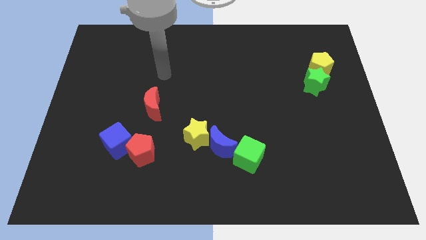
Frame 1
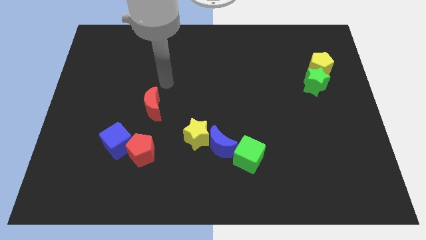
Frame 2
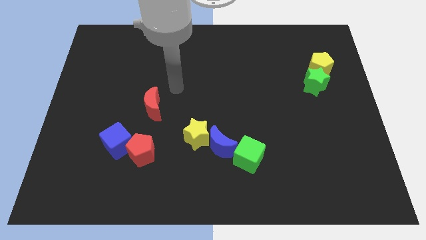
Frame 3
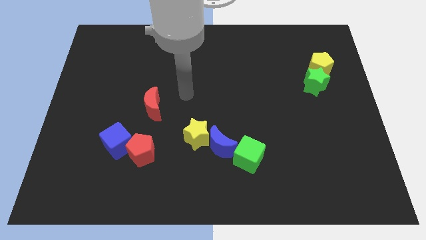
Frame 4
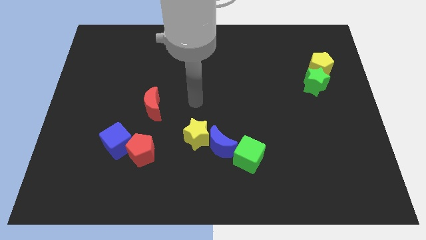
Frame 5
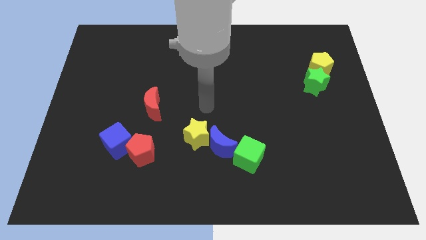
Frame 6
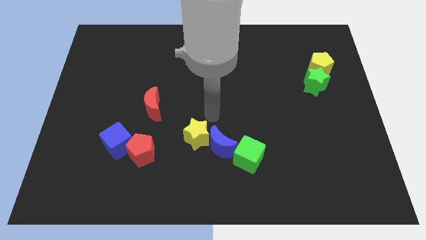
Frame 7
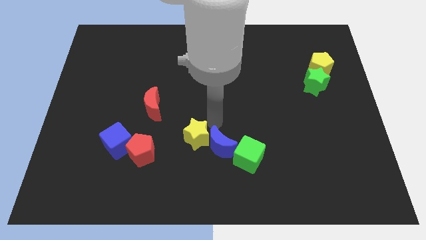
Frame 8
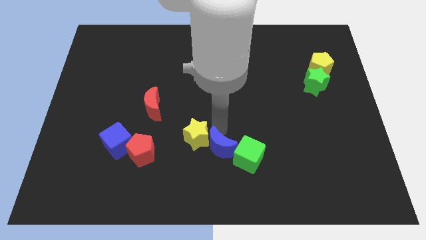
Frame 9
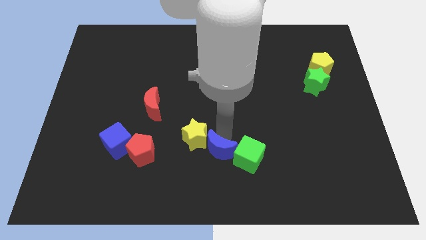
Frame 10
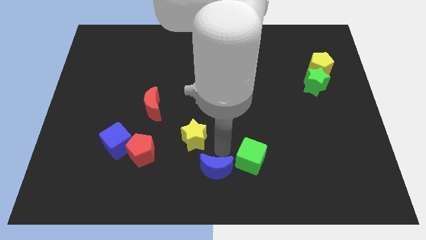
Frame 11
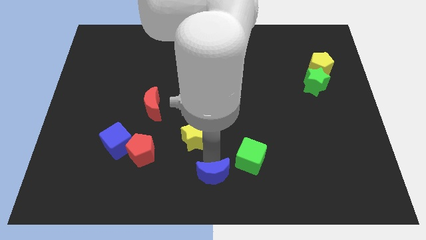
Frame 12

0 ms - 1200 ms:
pull the yellow star apart from the blue moon

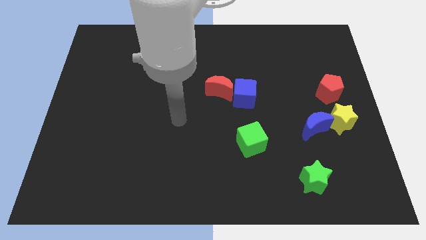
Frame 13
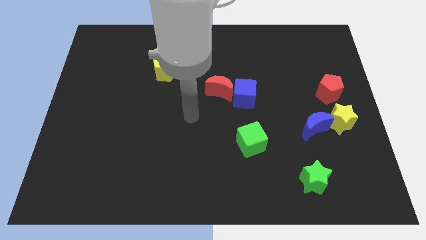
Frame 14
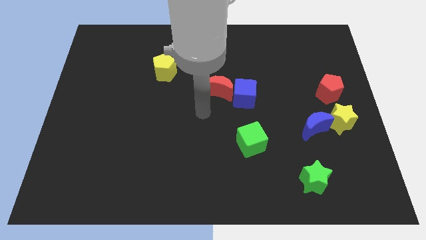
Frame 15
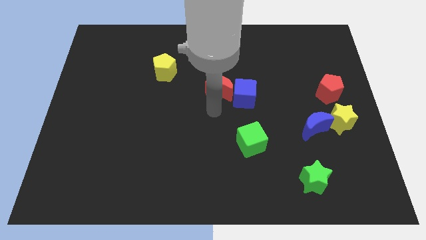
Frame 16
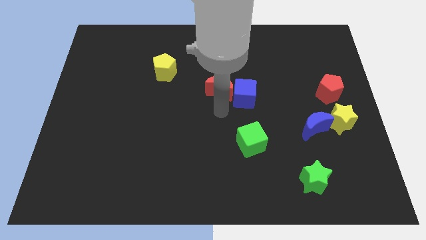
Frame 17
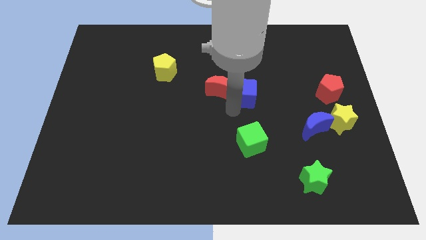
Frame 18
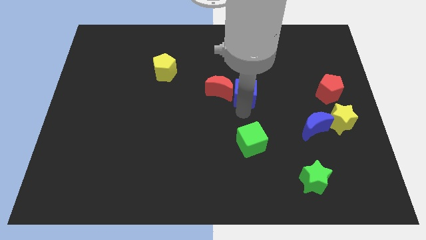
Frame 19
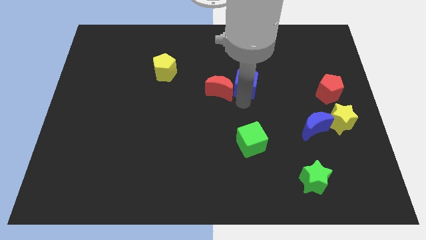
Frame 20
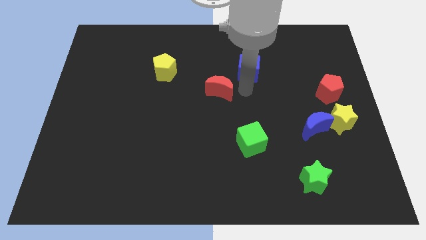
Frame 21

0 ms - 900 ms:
pull the red moon apart from the blue cube

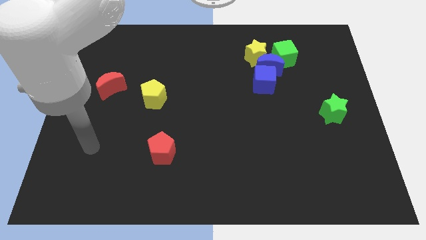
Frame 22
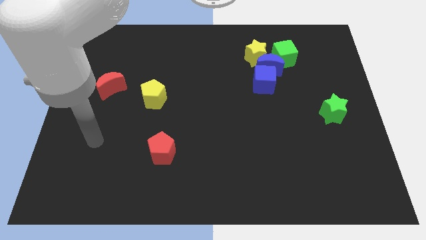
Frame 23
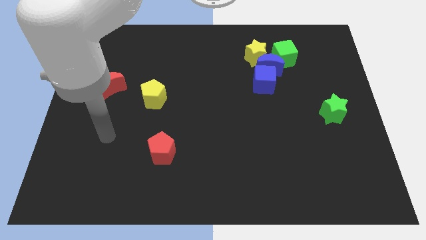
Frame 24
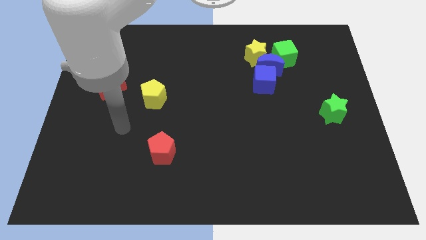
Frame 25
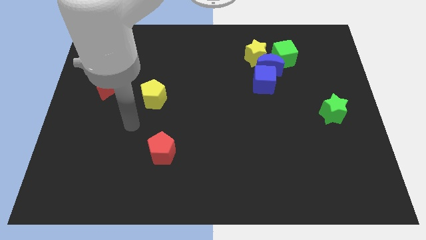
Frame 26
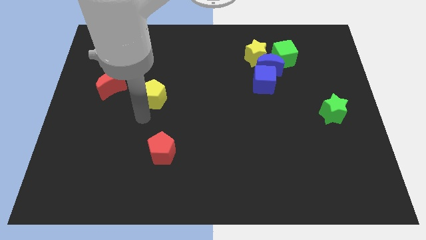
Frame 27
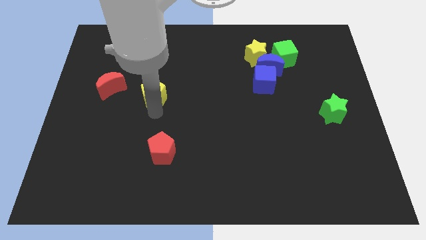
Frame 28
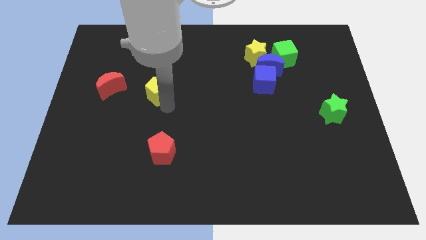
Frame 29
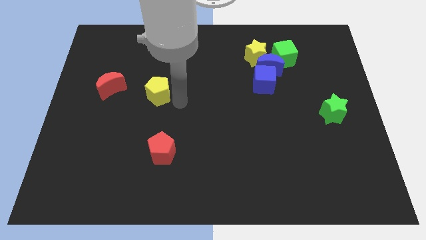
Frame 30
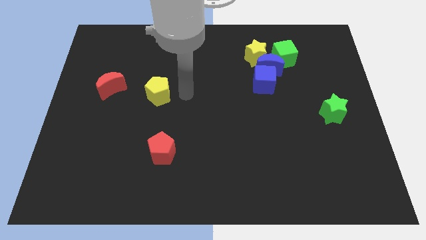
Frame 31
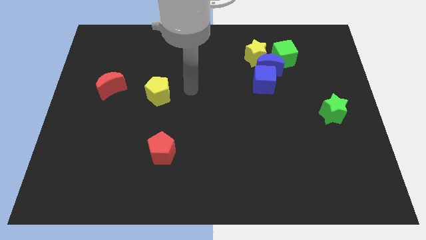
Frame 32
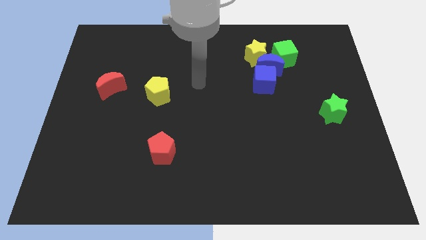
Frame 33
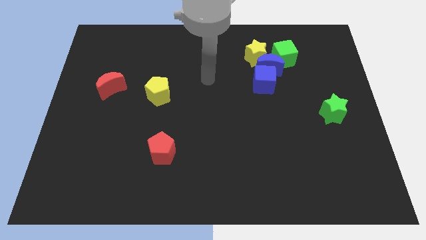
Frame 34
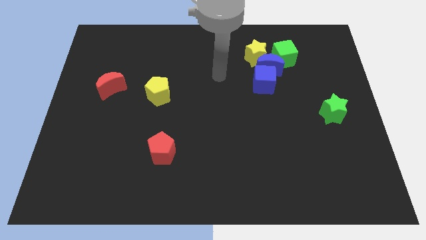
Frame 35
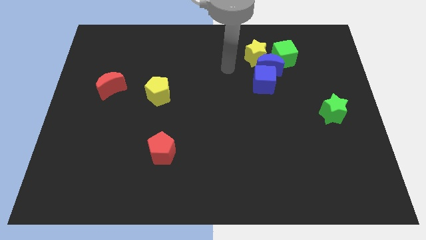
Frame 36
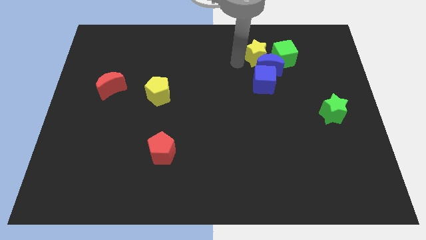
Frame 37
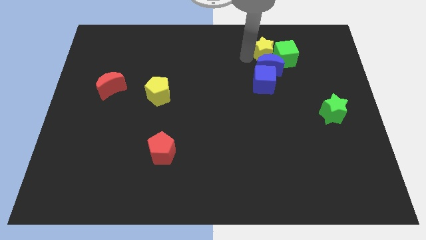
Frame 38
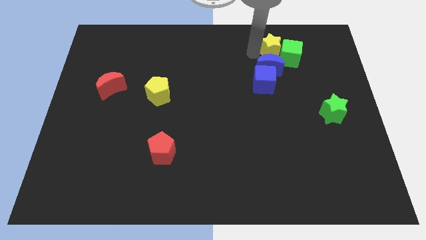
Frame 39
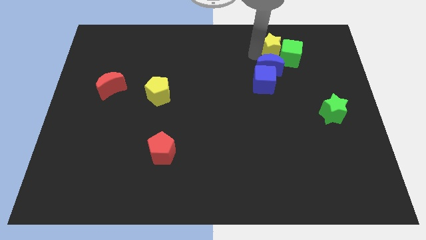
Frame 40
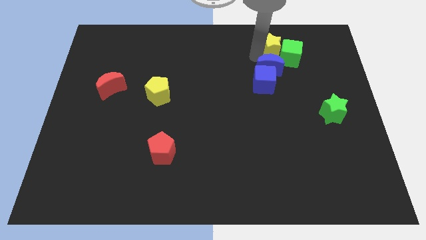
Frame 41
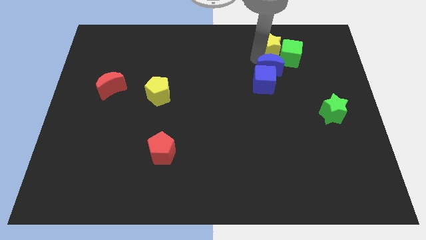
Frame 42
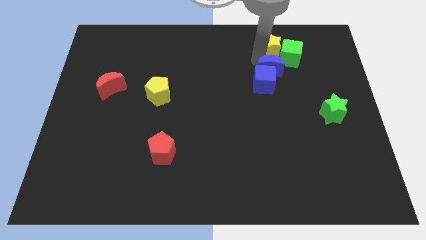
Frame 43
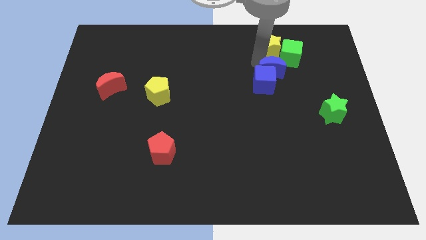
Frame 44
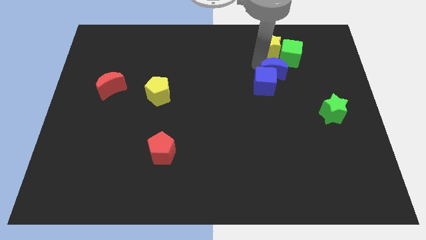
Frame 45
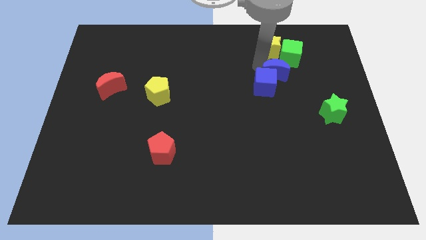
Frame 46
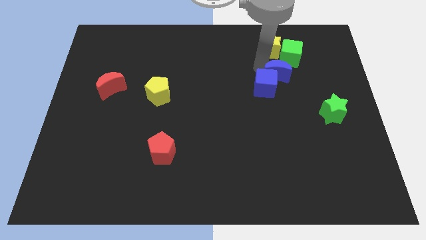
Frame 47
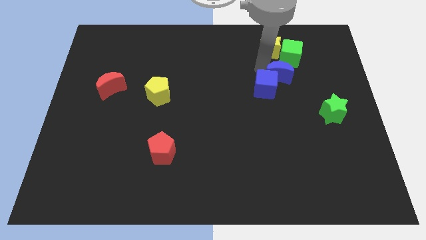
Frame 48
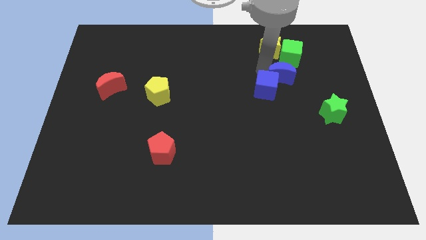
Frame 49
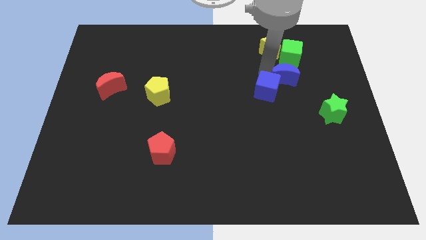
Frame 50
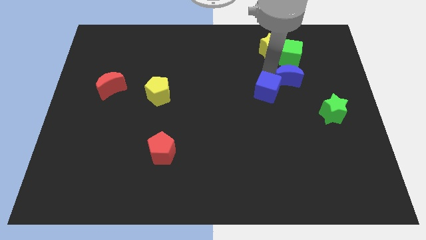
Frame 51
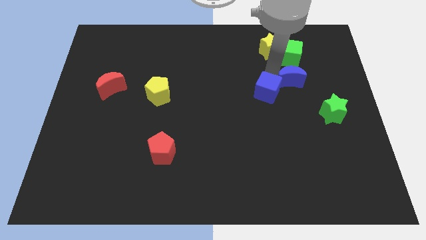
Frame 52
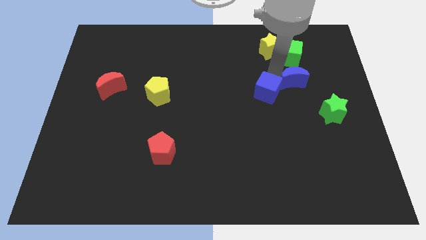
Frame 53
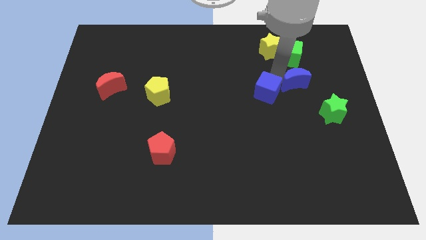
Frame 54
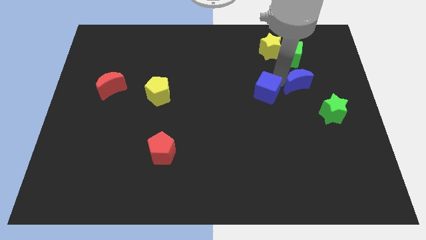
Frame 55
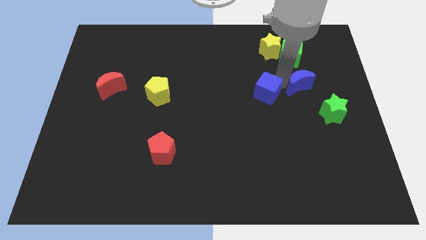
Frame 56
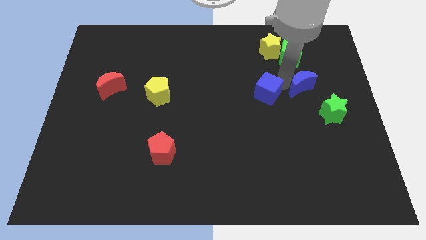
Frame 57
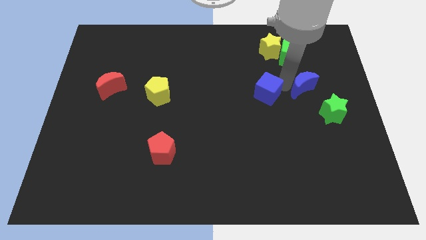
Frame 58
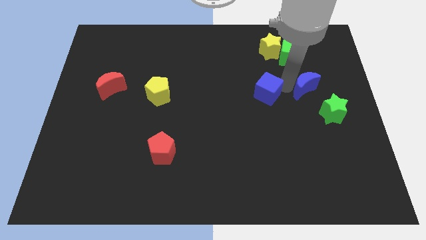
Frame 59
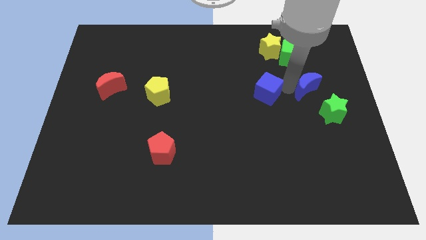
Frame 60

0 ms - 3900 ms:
pull the blue moon apart from the yellow star, blue cube, and green cube

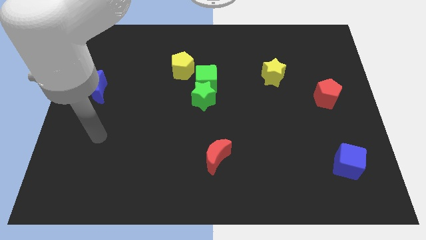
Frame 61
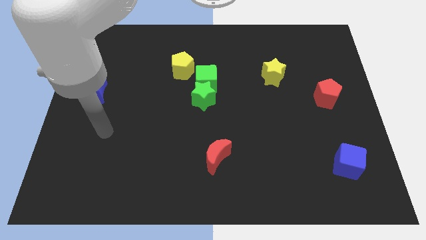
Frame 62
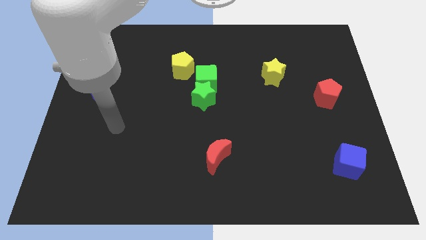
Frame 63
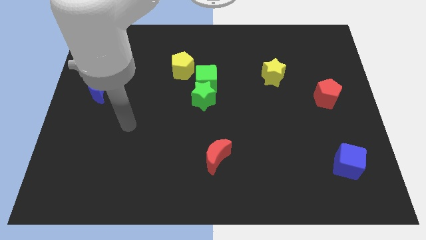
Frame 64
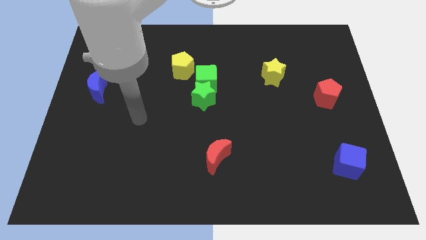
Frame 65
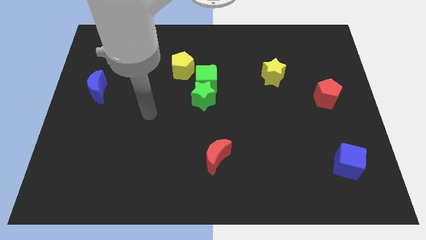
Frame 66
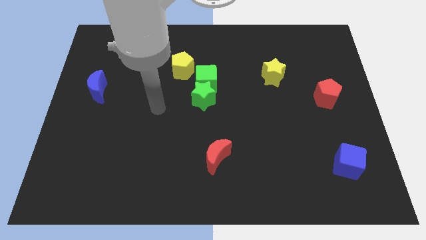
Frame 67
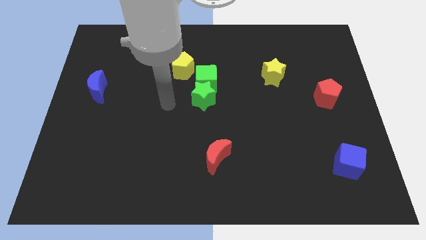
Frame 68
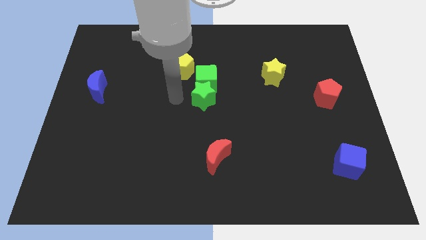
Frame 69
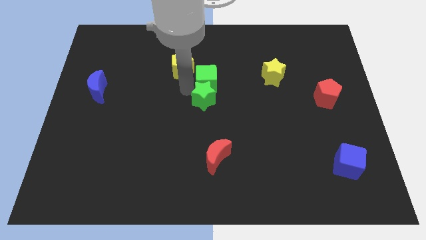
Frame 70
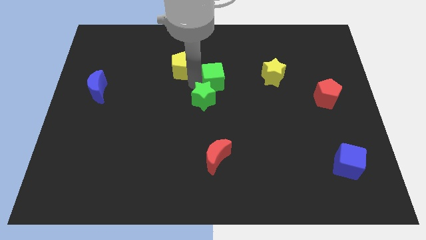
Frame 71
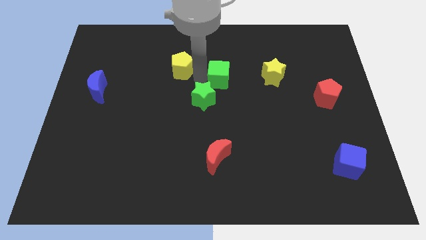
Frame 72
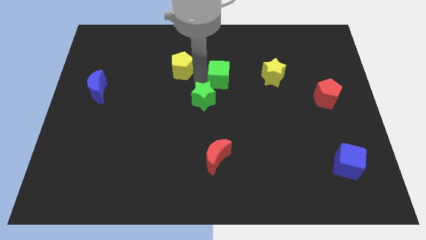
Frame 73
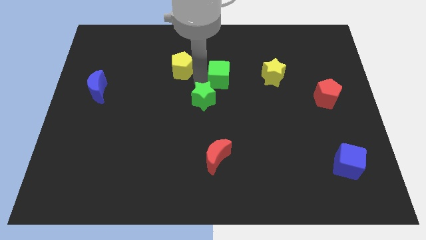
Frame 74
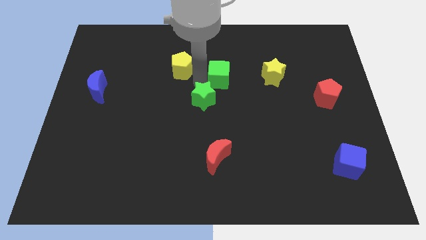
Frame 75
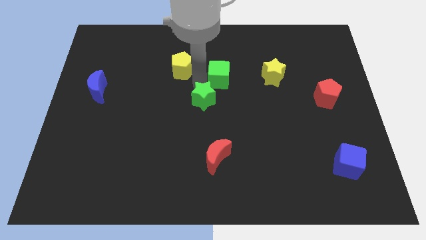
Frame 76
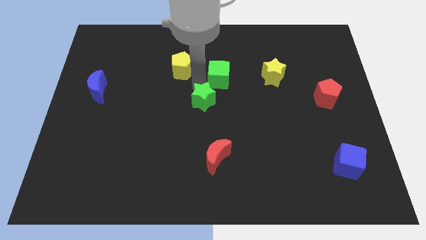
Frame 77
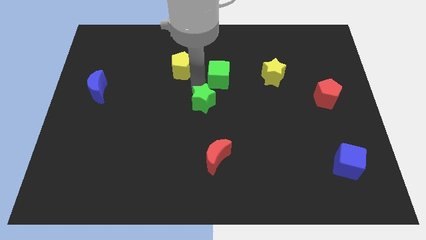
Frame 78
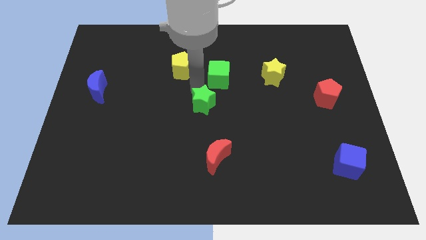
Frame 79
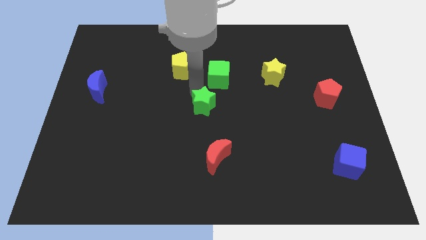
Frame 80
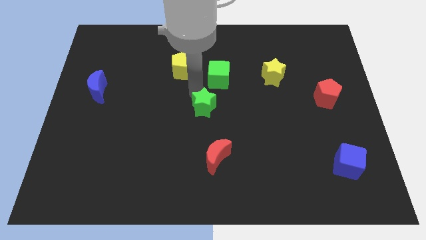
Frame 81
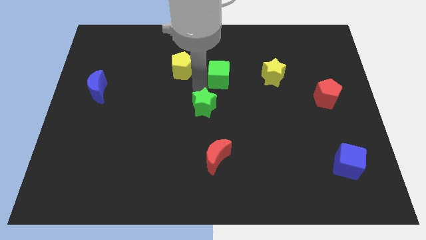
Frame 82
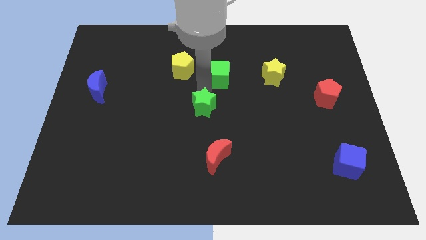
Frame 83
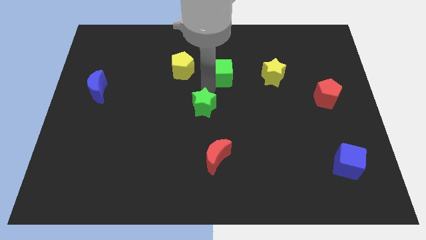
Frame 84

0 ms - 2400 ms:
move the green star away from the green cube

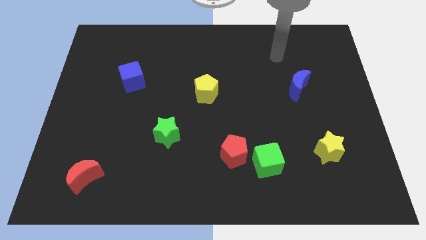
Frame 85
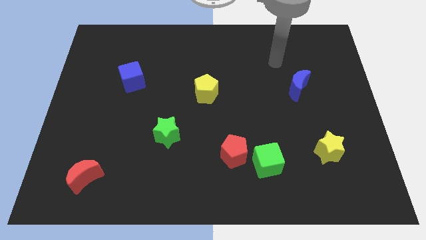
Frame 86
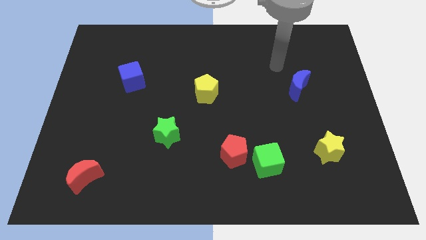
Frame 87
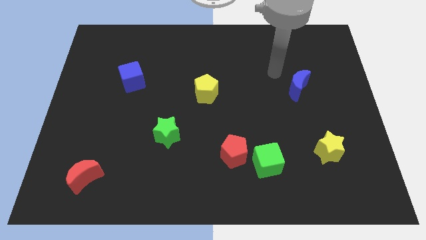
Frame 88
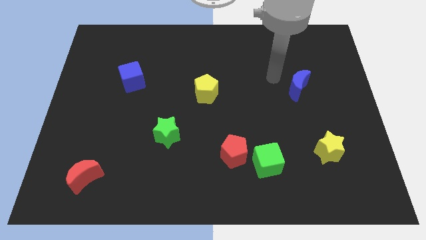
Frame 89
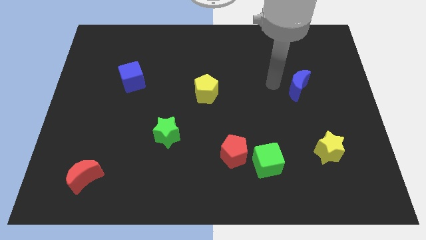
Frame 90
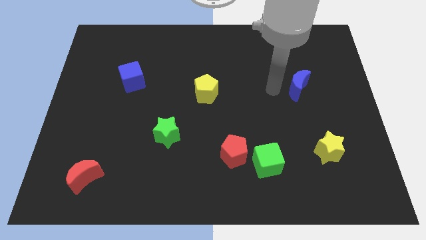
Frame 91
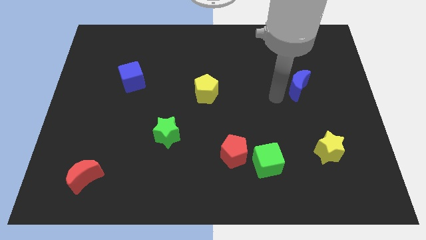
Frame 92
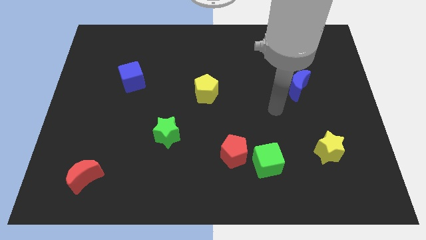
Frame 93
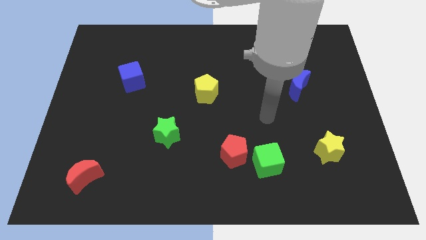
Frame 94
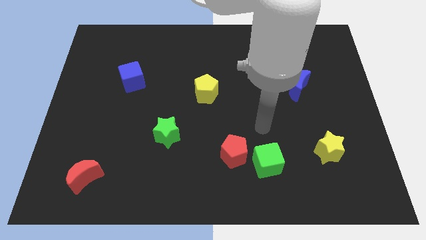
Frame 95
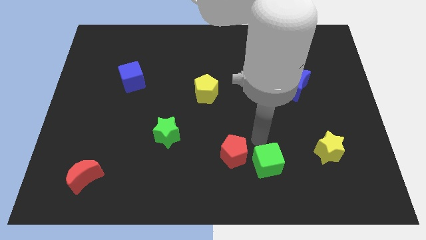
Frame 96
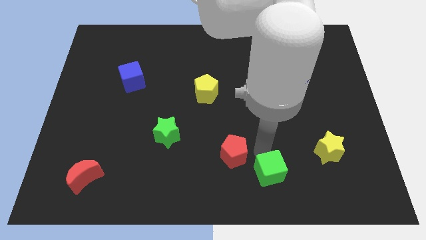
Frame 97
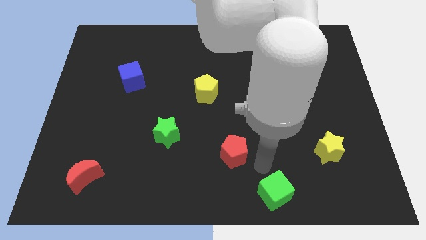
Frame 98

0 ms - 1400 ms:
separate the red pentagon from the green cube
